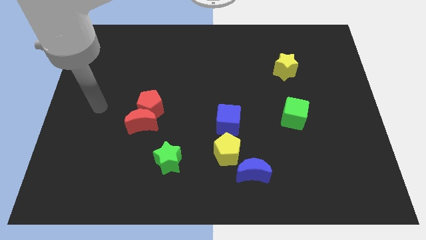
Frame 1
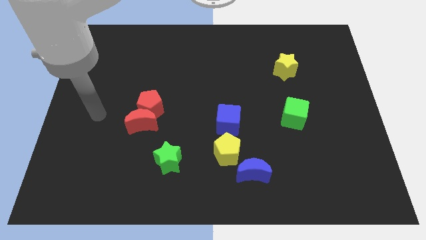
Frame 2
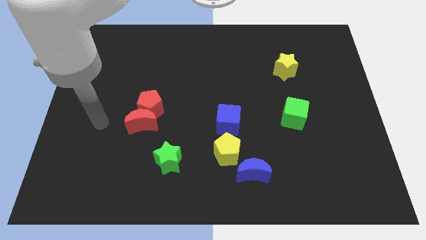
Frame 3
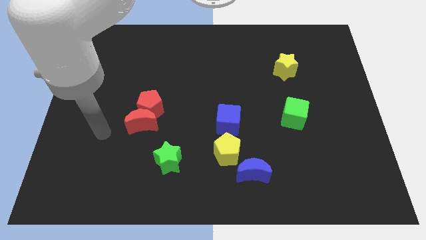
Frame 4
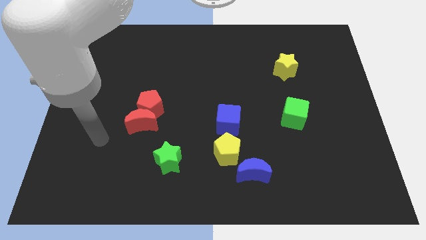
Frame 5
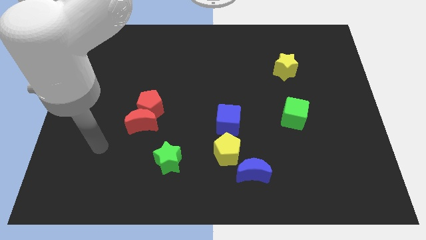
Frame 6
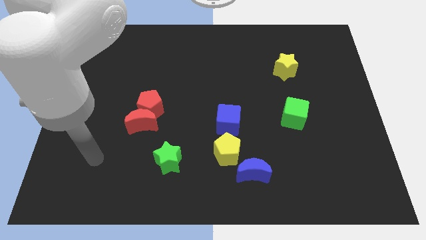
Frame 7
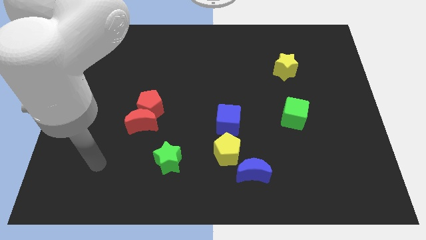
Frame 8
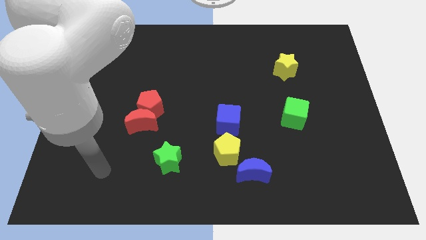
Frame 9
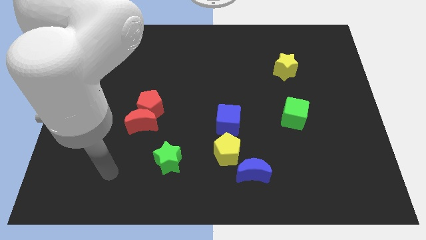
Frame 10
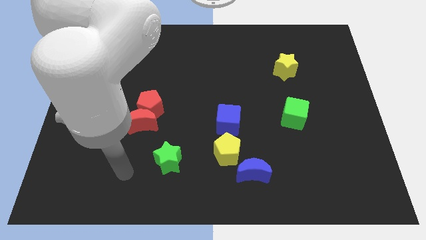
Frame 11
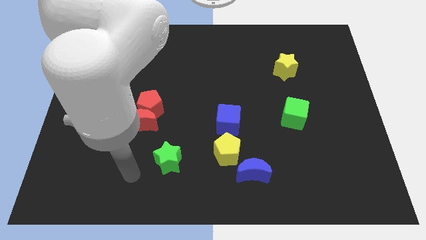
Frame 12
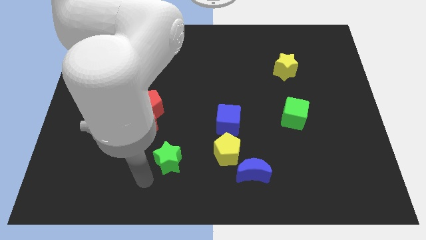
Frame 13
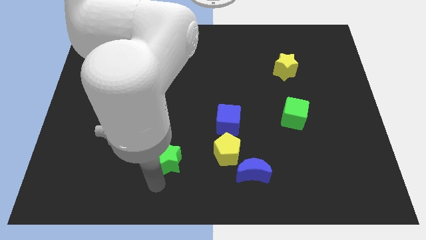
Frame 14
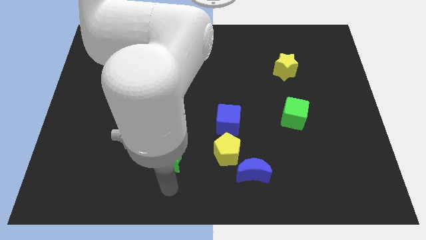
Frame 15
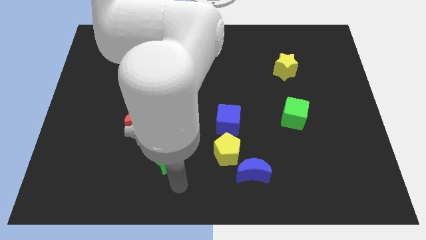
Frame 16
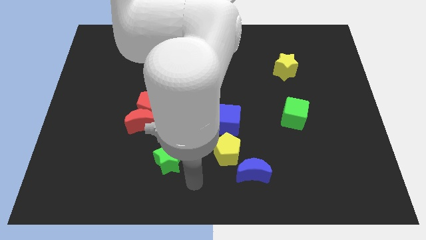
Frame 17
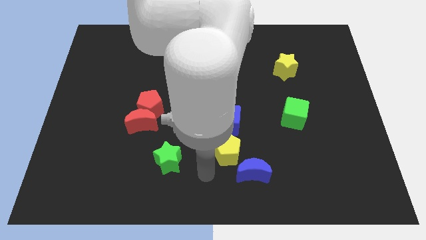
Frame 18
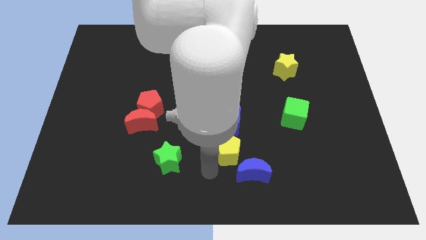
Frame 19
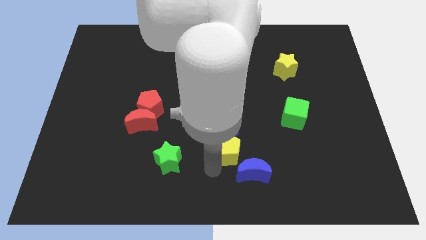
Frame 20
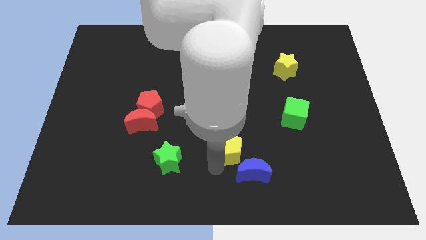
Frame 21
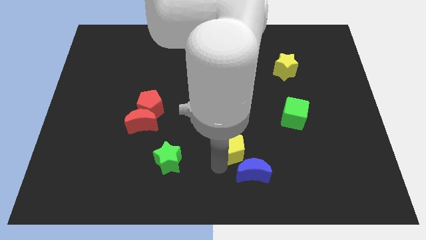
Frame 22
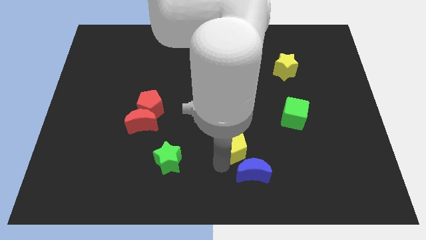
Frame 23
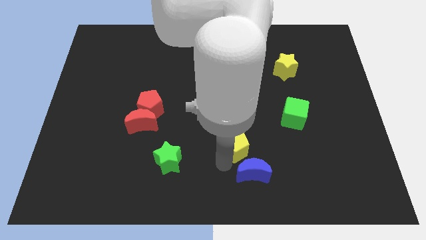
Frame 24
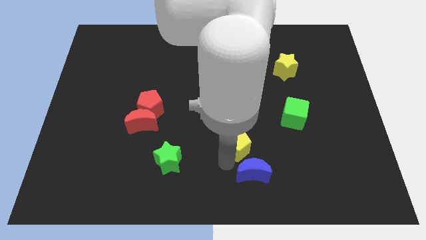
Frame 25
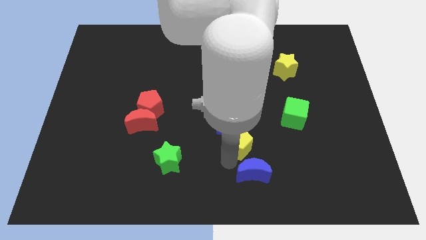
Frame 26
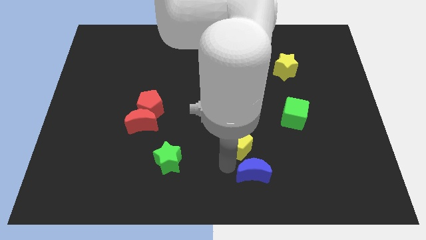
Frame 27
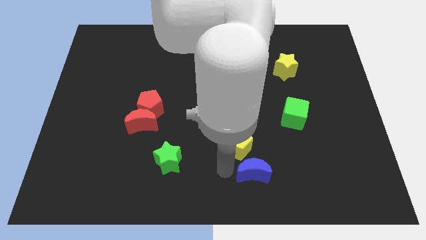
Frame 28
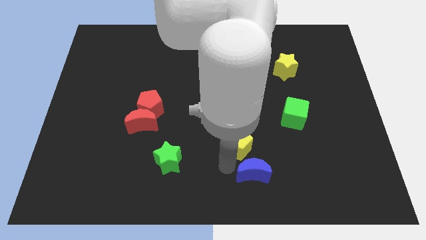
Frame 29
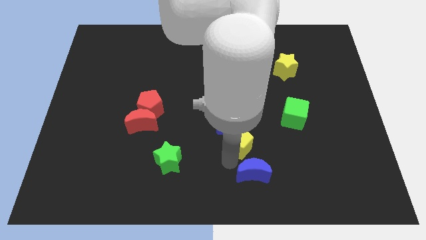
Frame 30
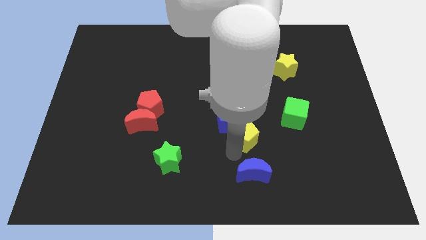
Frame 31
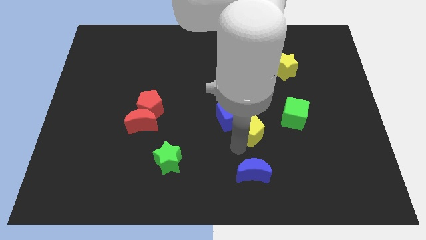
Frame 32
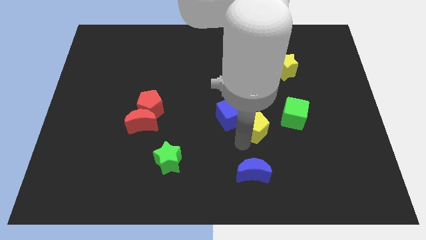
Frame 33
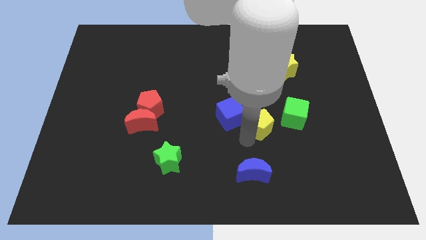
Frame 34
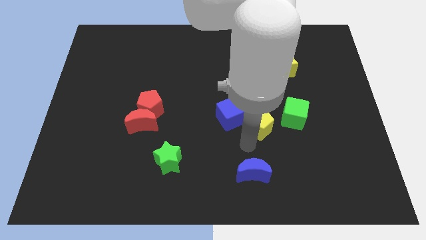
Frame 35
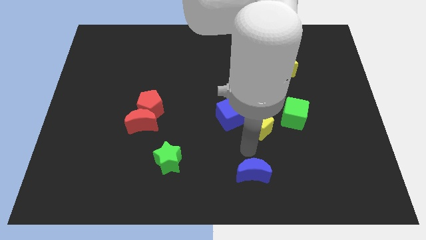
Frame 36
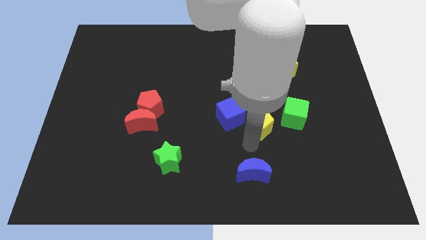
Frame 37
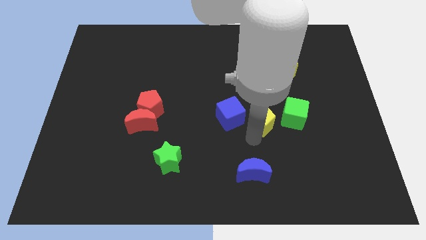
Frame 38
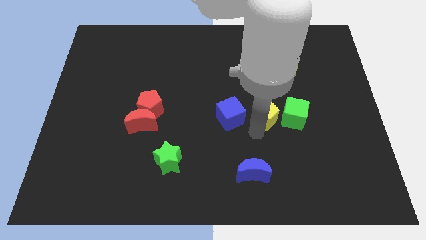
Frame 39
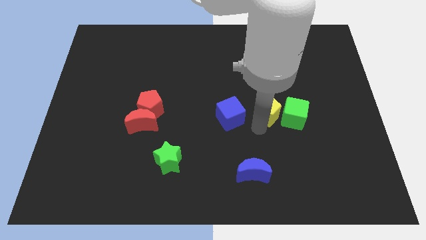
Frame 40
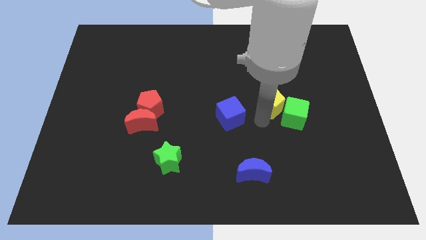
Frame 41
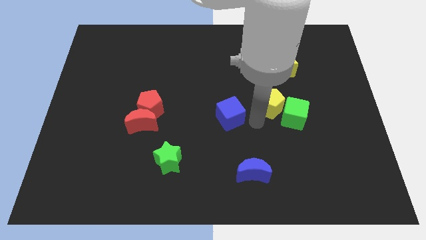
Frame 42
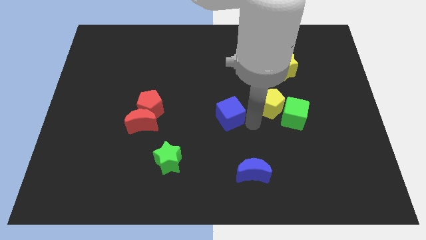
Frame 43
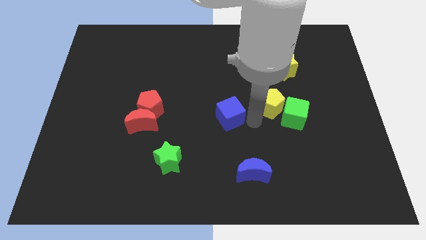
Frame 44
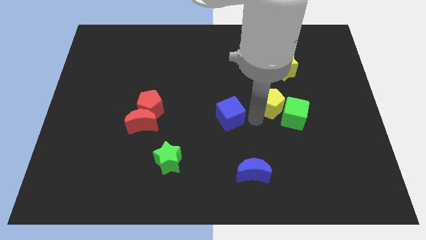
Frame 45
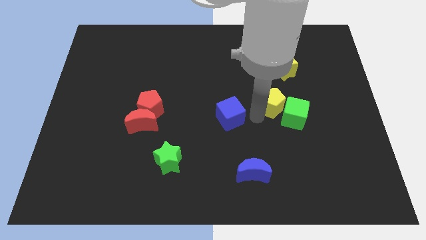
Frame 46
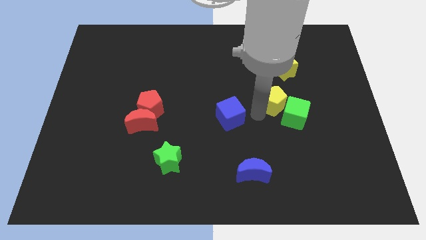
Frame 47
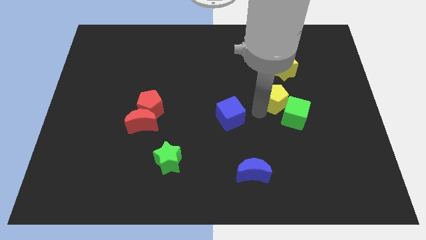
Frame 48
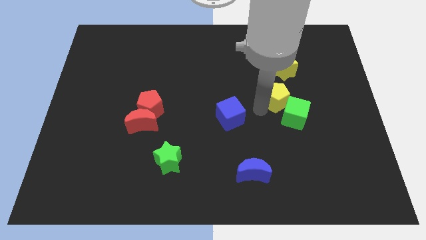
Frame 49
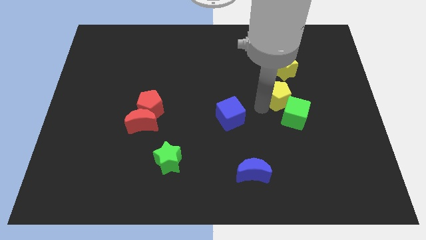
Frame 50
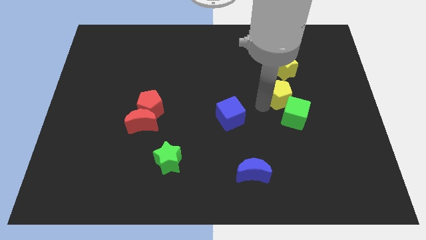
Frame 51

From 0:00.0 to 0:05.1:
move the yellow pentagon up and then right

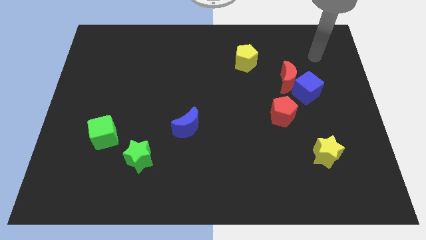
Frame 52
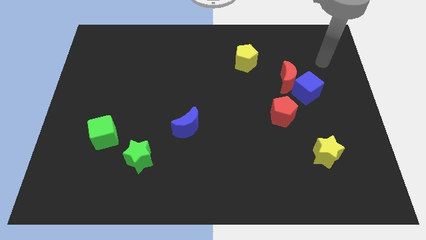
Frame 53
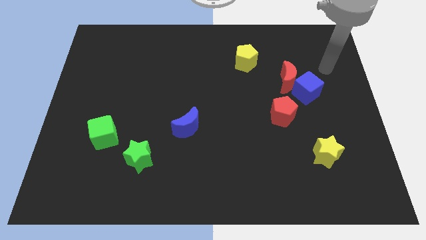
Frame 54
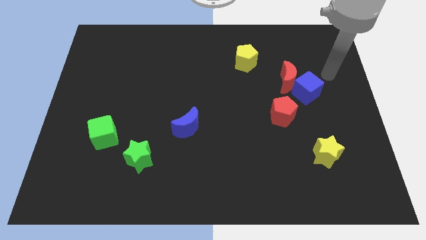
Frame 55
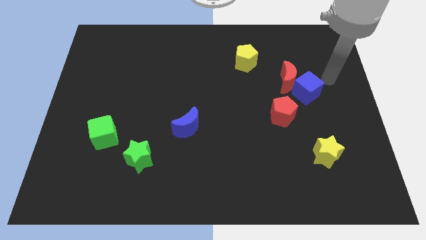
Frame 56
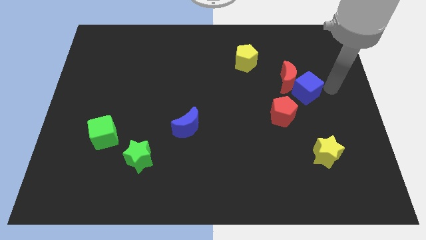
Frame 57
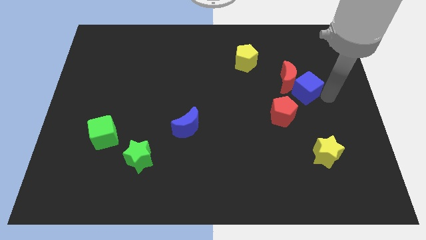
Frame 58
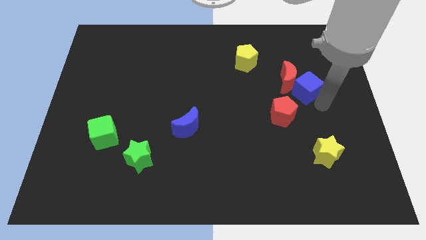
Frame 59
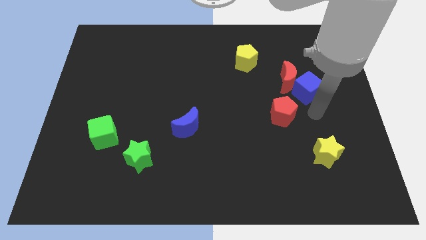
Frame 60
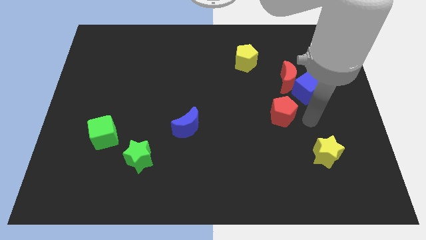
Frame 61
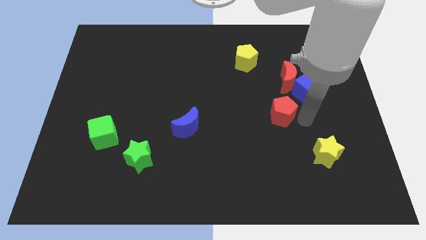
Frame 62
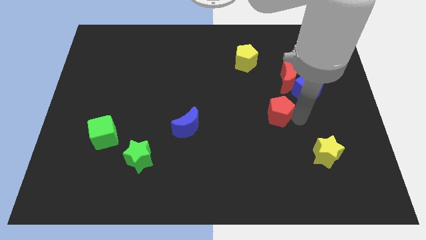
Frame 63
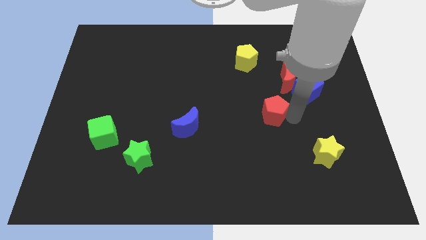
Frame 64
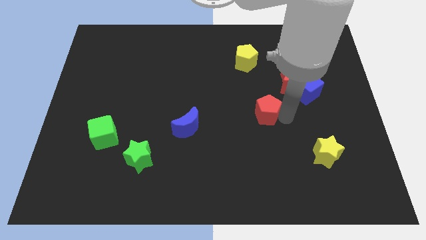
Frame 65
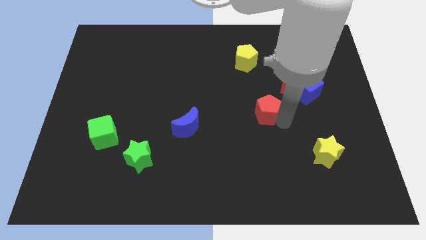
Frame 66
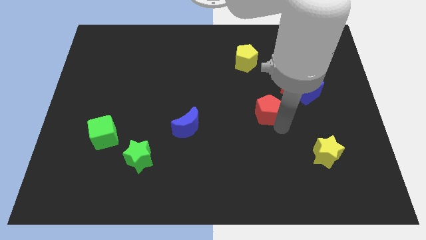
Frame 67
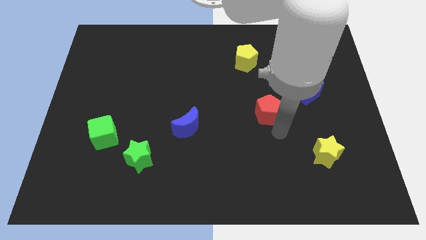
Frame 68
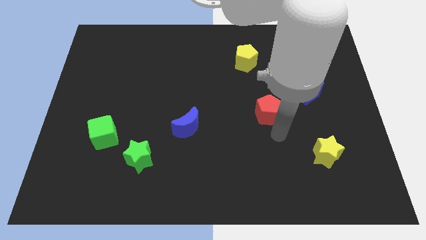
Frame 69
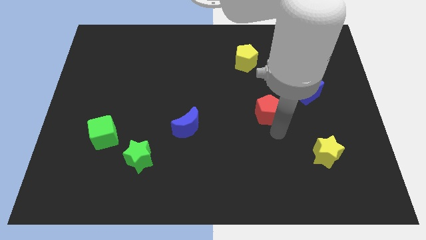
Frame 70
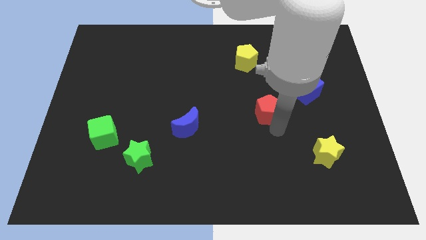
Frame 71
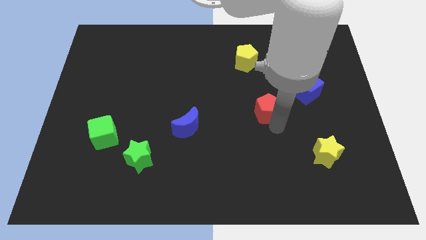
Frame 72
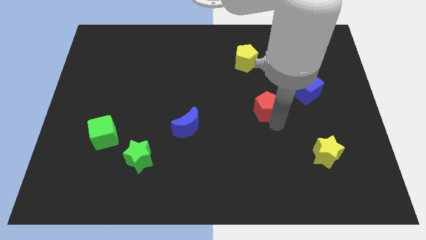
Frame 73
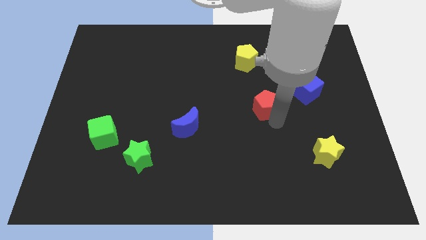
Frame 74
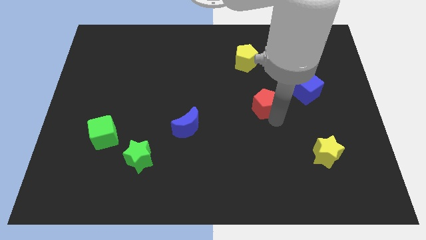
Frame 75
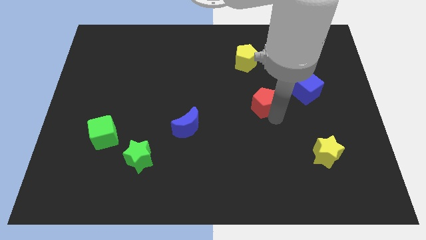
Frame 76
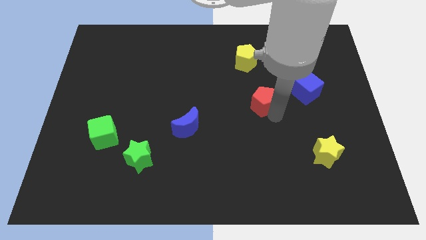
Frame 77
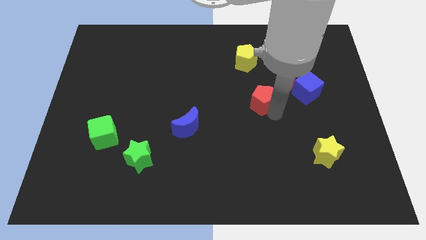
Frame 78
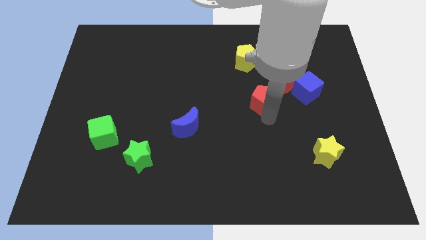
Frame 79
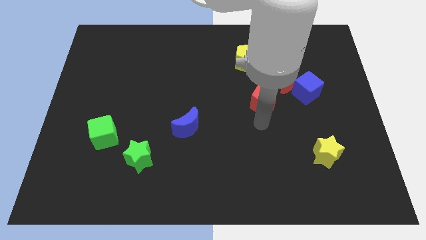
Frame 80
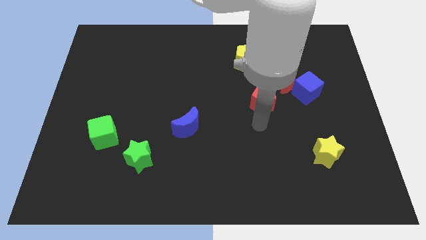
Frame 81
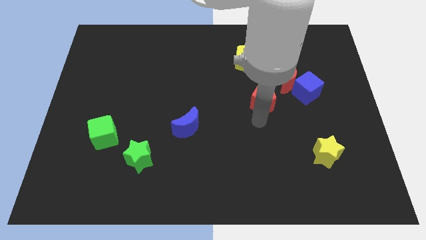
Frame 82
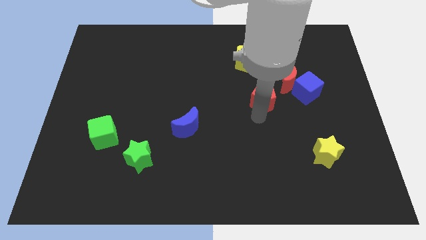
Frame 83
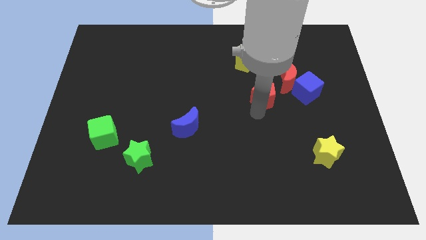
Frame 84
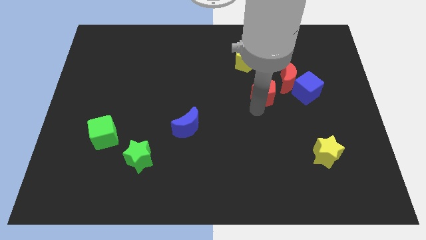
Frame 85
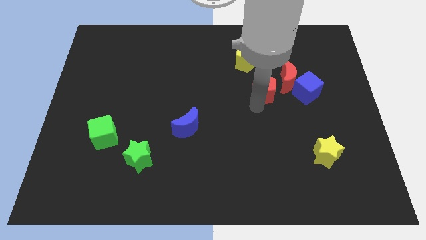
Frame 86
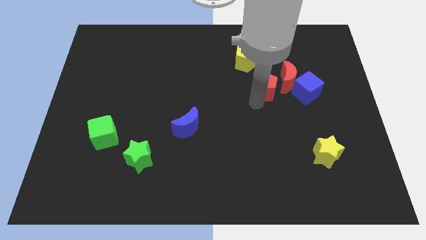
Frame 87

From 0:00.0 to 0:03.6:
move the red pentagon up a little
